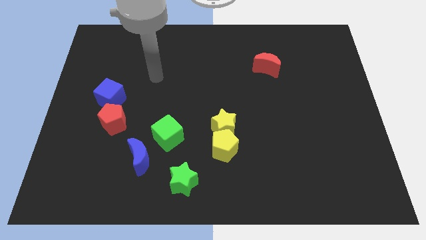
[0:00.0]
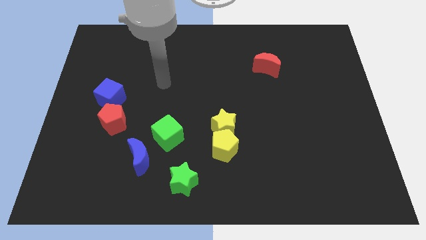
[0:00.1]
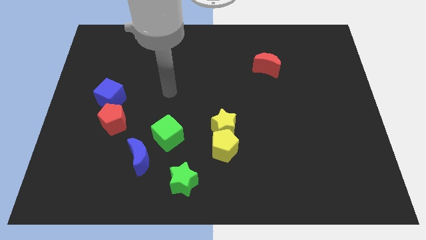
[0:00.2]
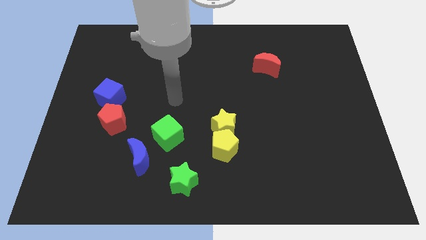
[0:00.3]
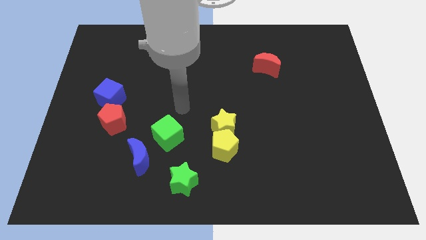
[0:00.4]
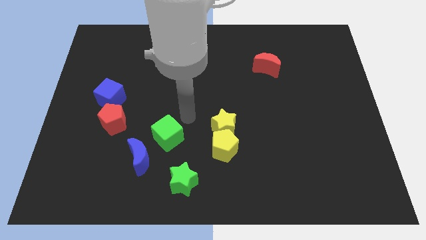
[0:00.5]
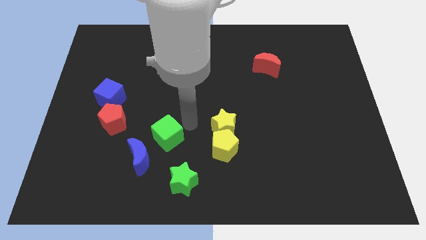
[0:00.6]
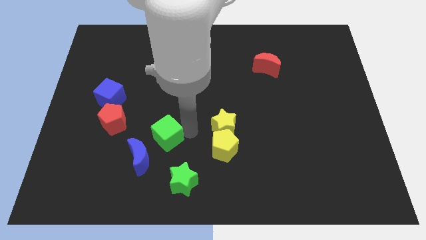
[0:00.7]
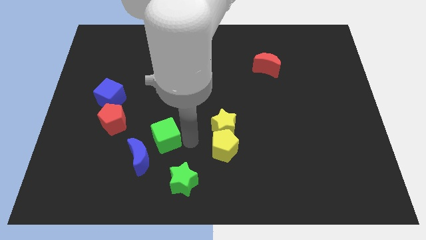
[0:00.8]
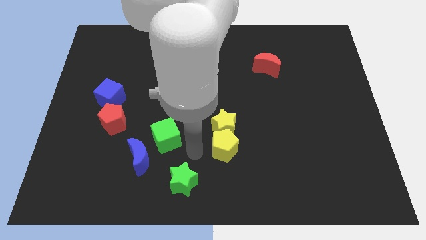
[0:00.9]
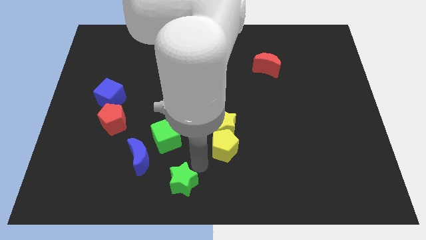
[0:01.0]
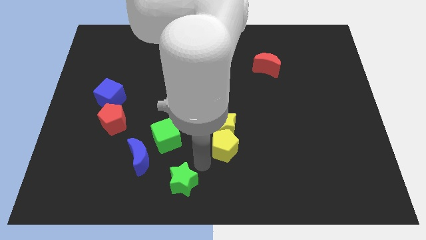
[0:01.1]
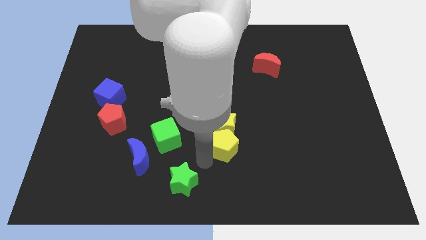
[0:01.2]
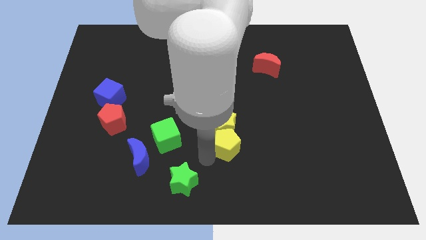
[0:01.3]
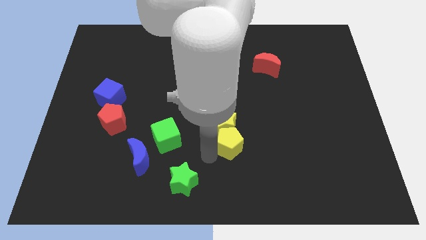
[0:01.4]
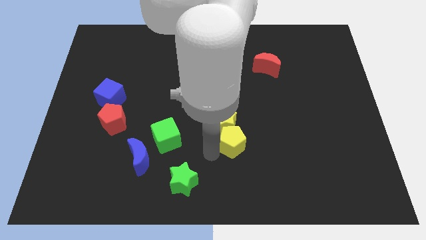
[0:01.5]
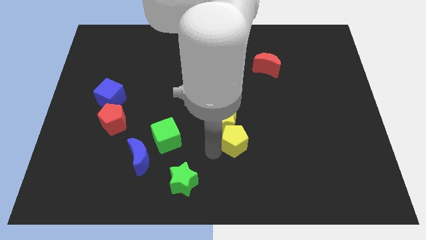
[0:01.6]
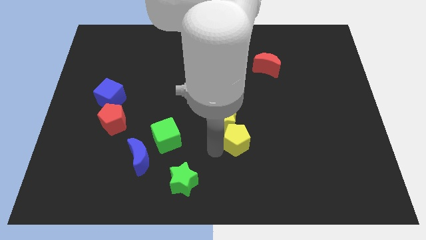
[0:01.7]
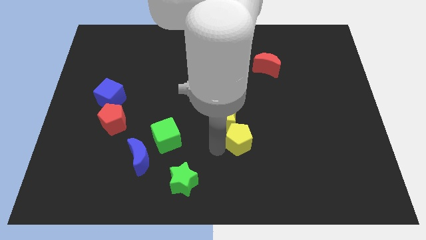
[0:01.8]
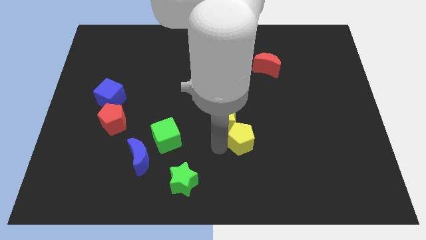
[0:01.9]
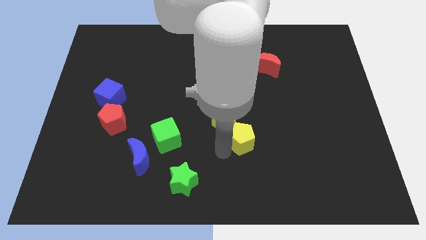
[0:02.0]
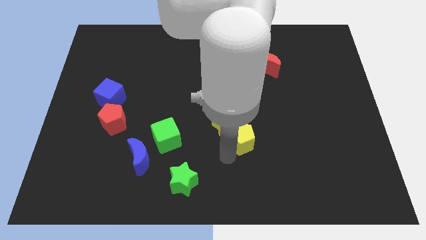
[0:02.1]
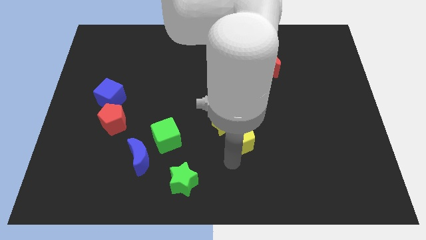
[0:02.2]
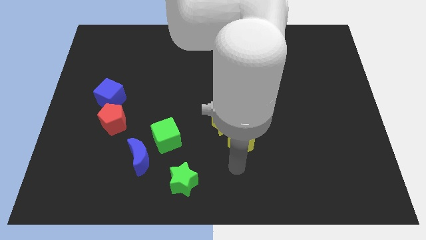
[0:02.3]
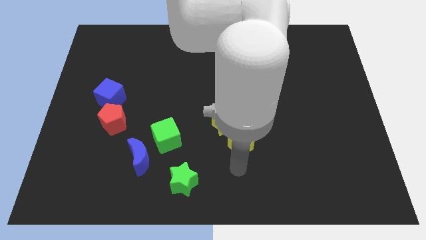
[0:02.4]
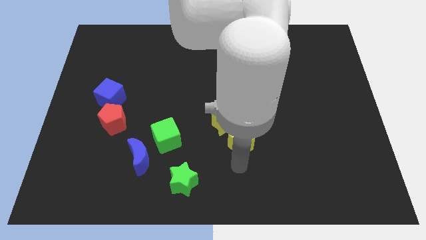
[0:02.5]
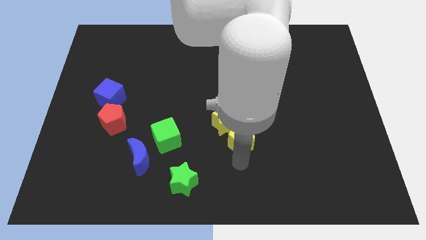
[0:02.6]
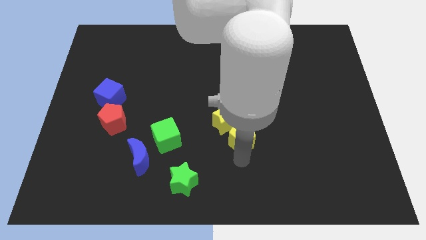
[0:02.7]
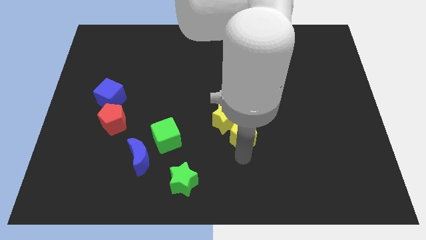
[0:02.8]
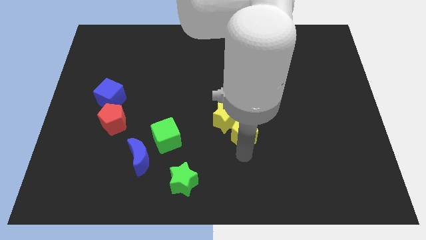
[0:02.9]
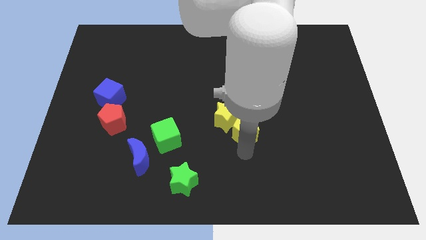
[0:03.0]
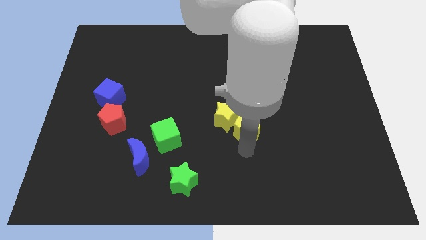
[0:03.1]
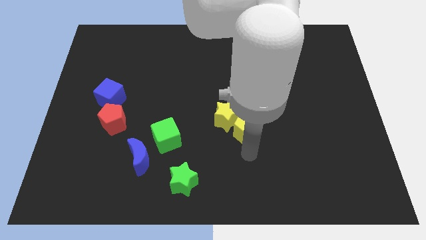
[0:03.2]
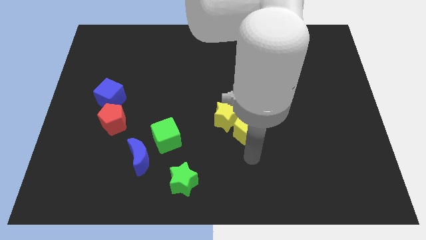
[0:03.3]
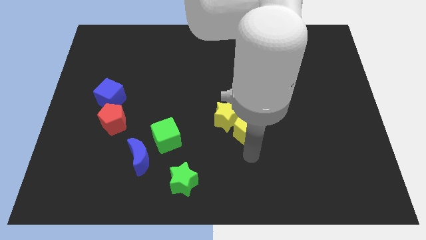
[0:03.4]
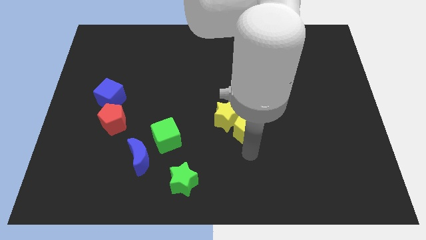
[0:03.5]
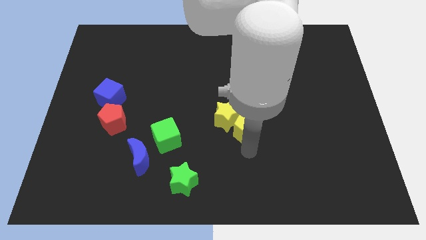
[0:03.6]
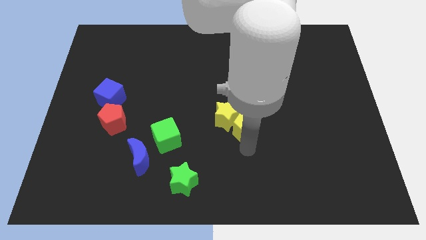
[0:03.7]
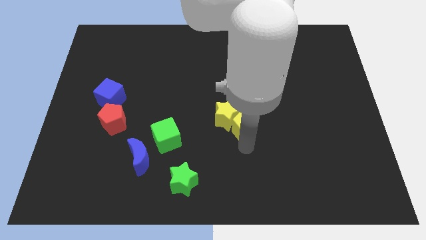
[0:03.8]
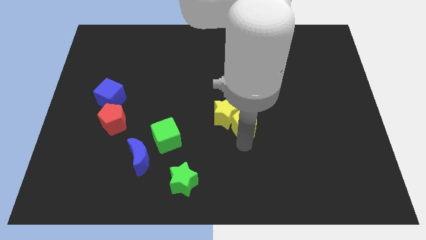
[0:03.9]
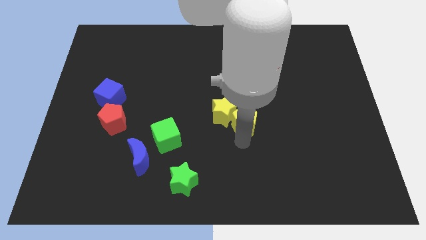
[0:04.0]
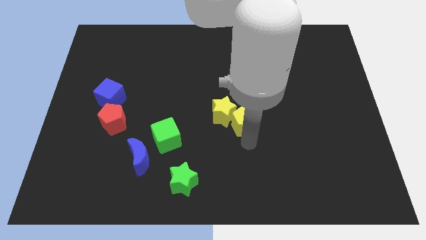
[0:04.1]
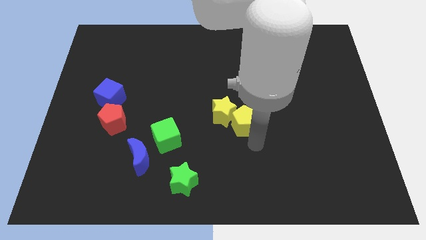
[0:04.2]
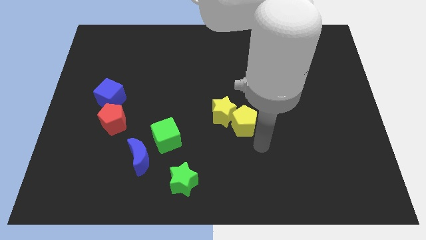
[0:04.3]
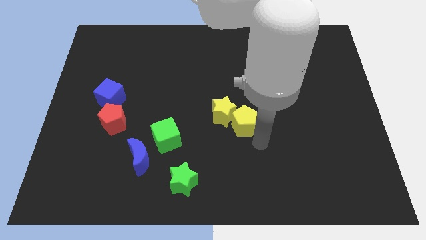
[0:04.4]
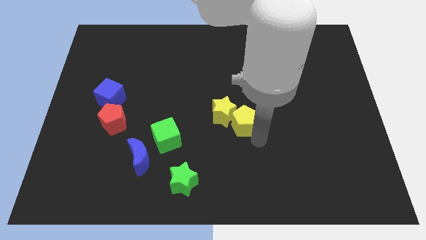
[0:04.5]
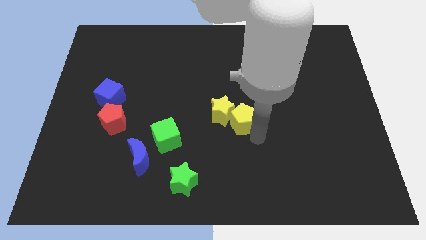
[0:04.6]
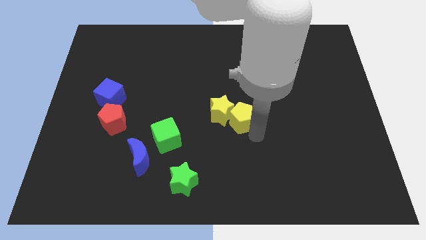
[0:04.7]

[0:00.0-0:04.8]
slightly slide the yellow pentagon up

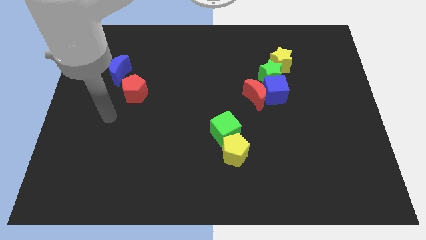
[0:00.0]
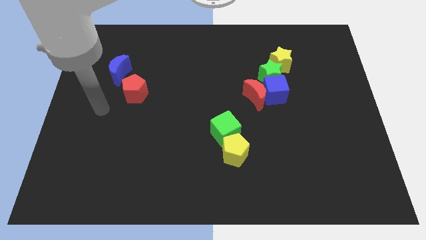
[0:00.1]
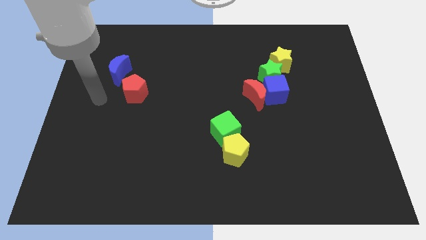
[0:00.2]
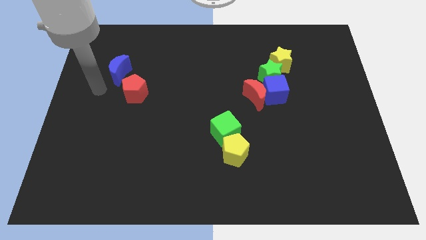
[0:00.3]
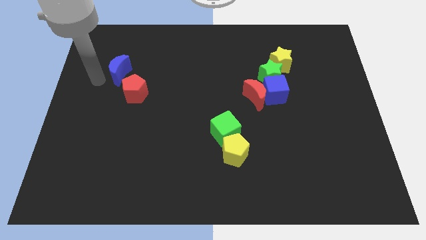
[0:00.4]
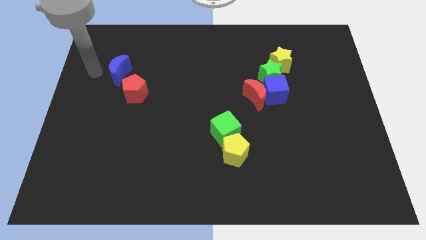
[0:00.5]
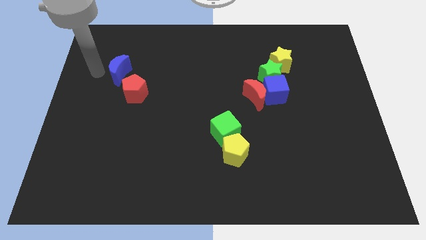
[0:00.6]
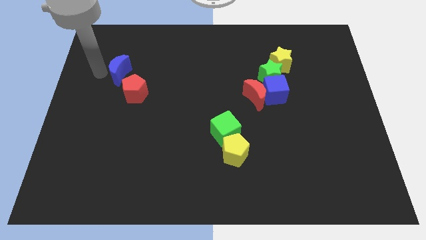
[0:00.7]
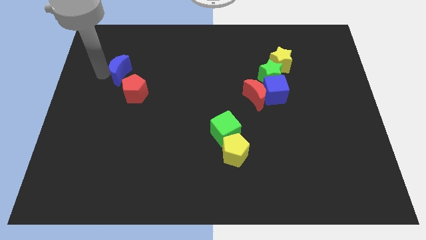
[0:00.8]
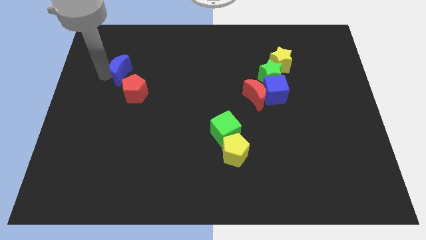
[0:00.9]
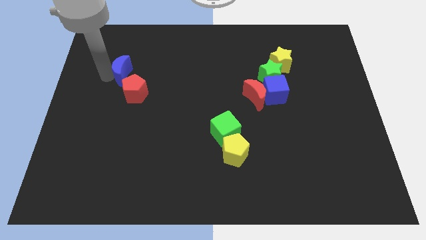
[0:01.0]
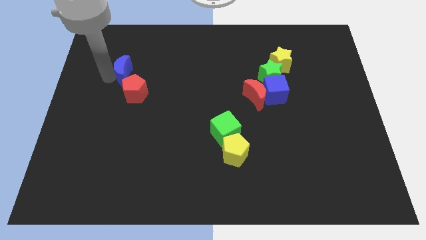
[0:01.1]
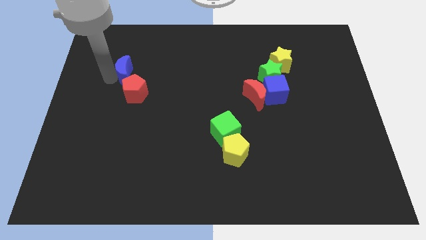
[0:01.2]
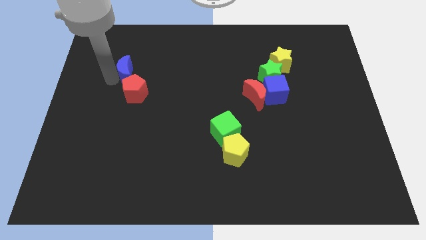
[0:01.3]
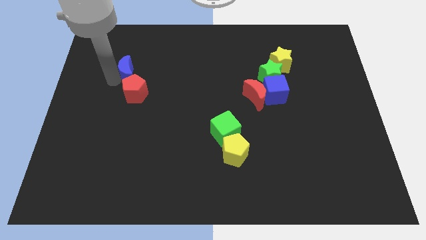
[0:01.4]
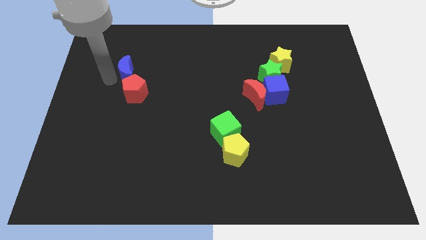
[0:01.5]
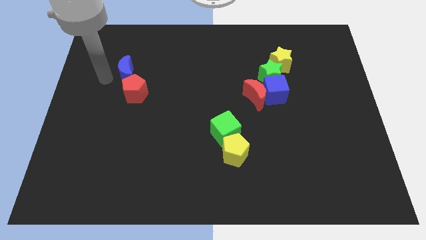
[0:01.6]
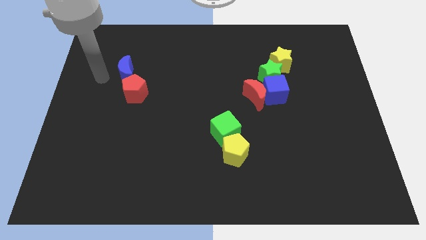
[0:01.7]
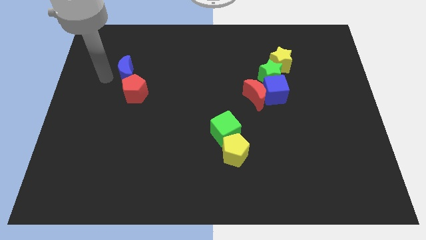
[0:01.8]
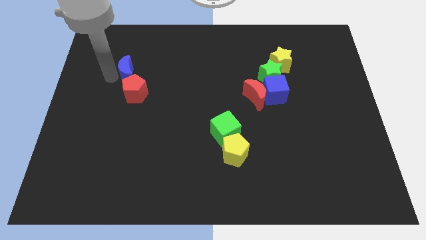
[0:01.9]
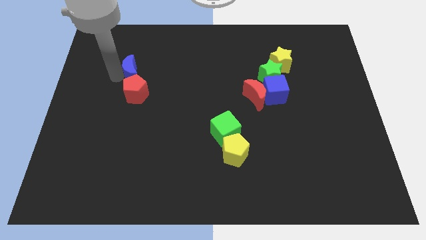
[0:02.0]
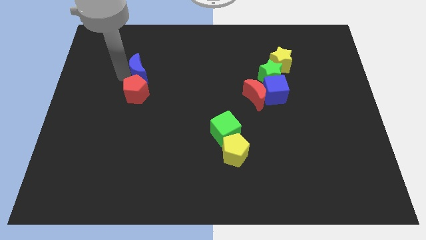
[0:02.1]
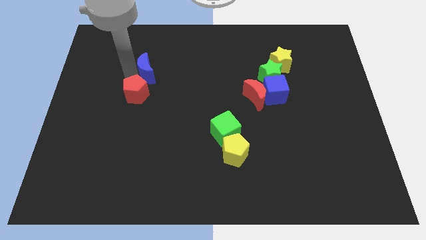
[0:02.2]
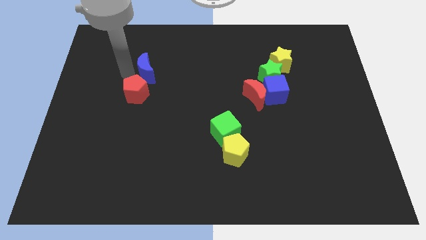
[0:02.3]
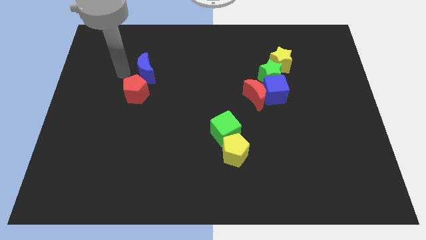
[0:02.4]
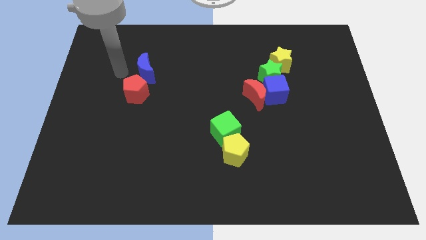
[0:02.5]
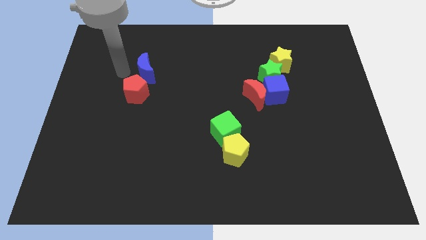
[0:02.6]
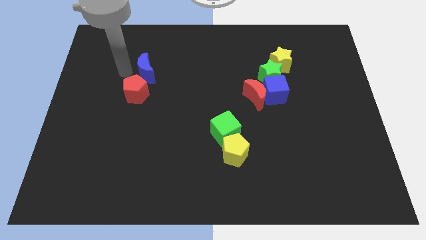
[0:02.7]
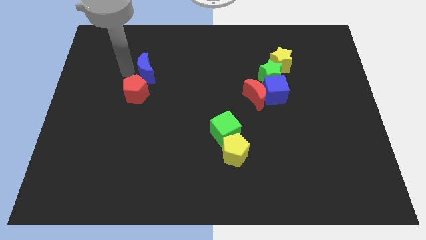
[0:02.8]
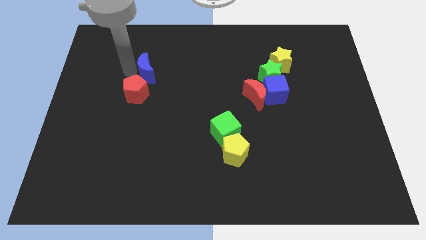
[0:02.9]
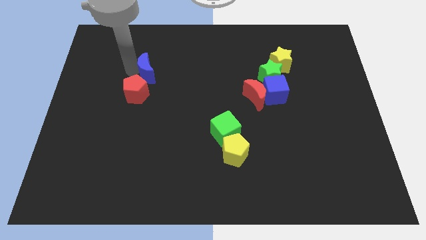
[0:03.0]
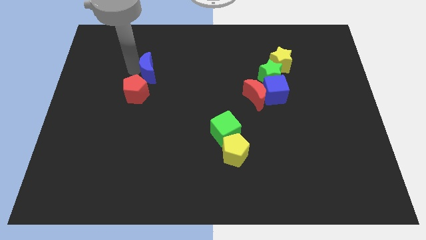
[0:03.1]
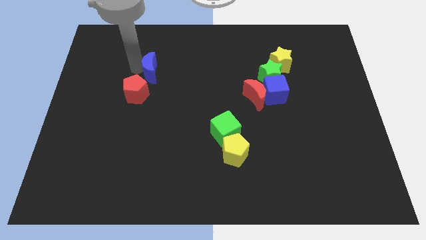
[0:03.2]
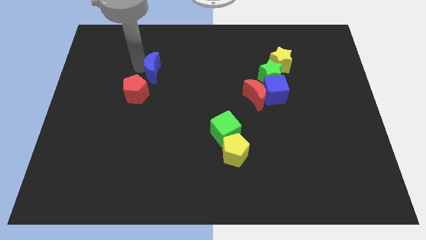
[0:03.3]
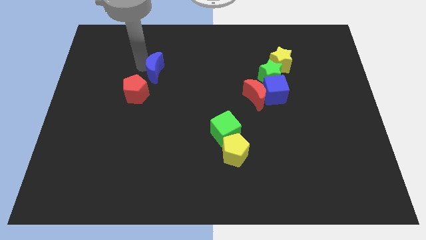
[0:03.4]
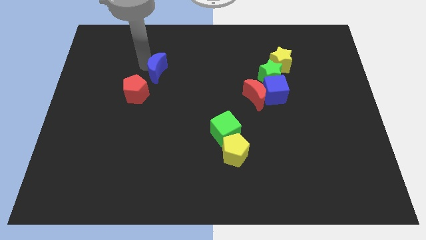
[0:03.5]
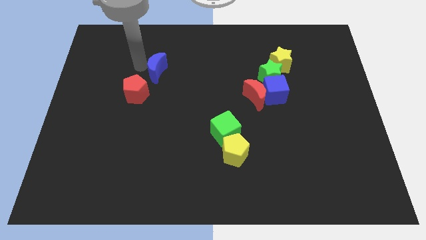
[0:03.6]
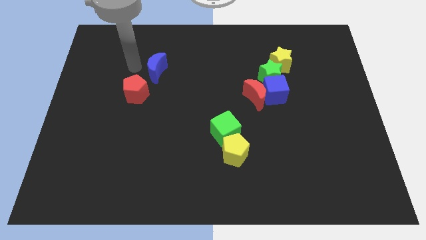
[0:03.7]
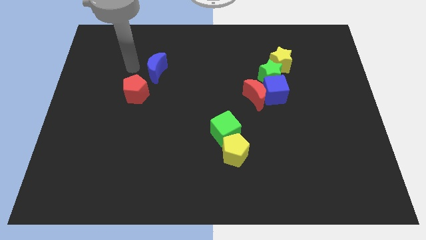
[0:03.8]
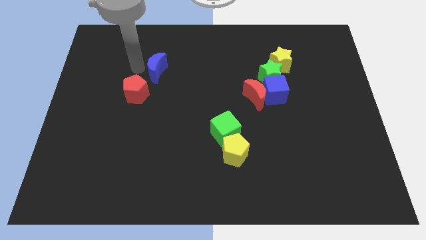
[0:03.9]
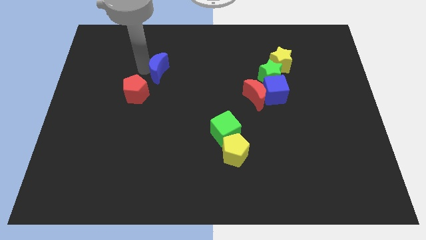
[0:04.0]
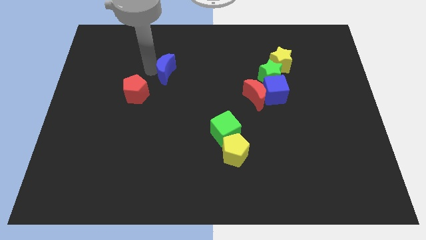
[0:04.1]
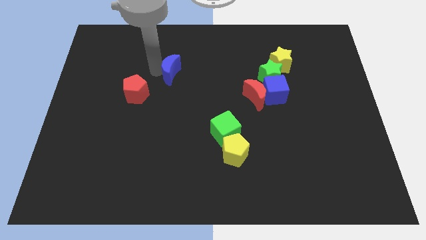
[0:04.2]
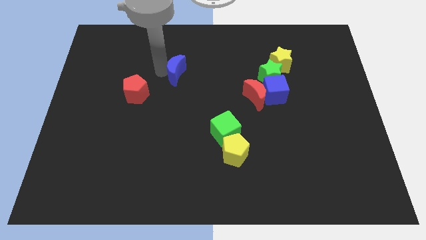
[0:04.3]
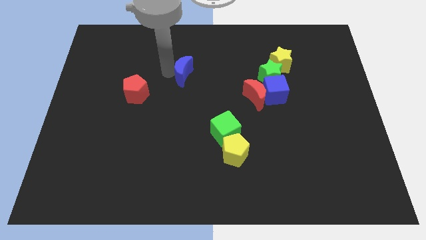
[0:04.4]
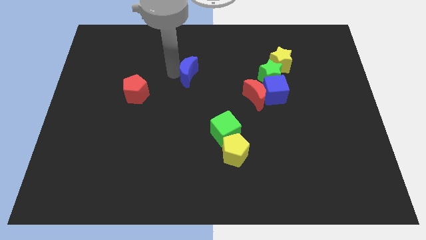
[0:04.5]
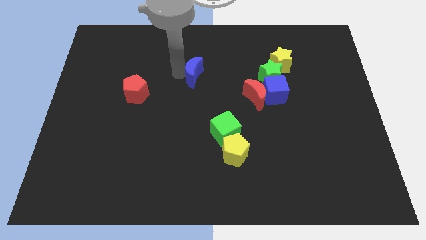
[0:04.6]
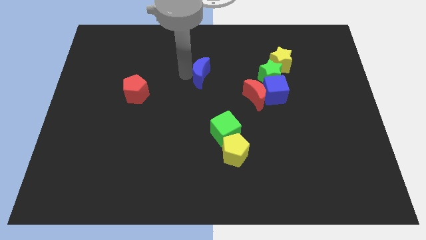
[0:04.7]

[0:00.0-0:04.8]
move the blue moon right
